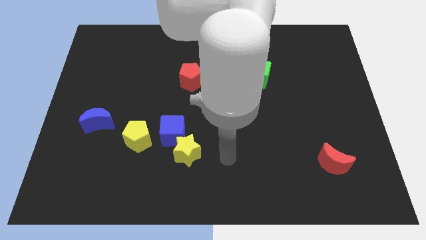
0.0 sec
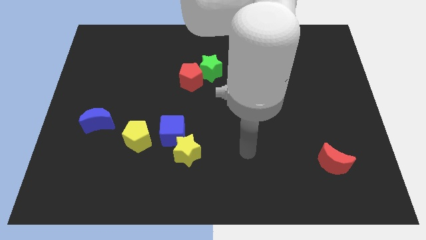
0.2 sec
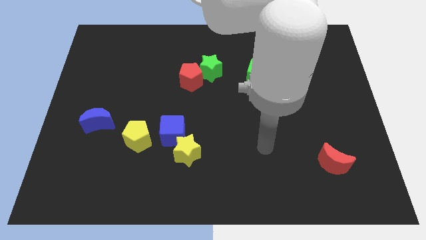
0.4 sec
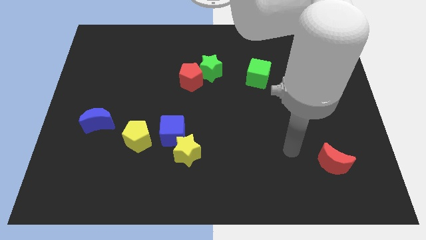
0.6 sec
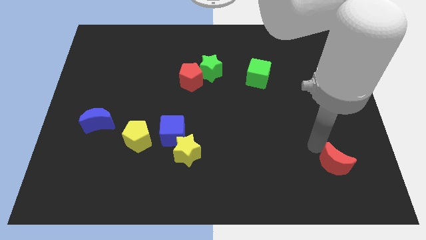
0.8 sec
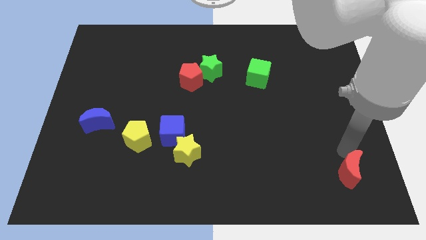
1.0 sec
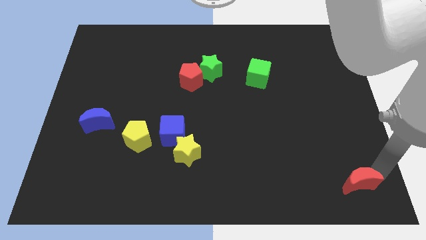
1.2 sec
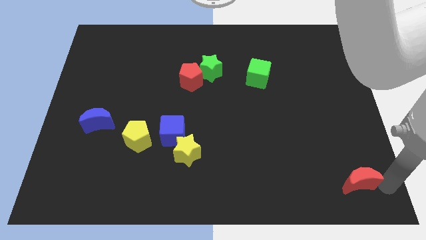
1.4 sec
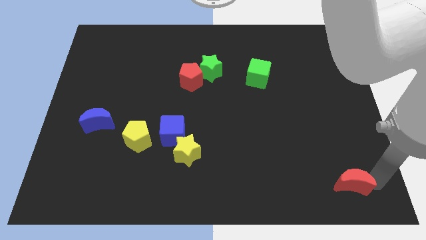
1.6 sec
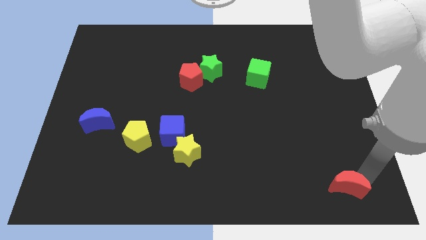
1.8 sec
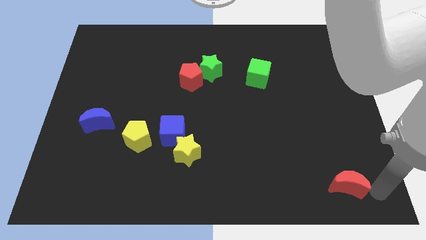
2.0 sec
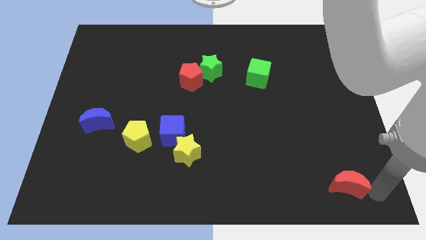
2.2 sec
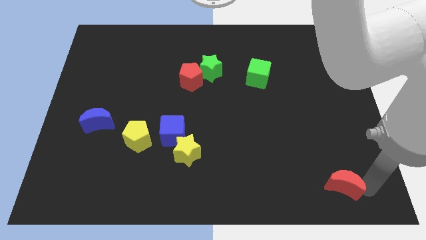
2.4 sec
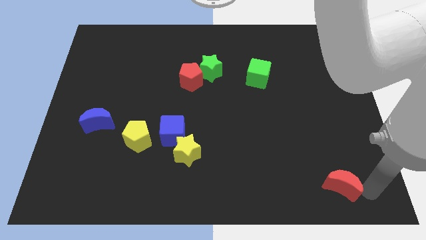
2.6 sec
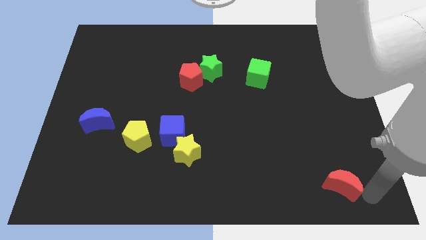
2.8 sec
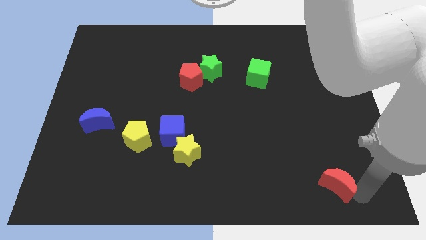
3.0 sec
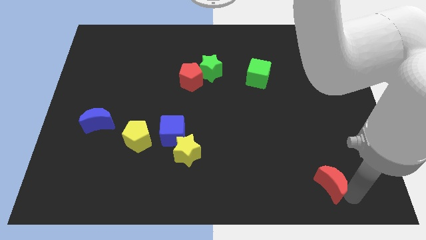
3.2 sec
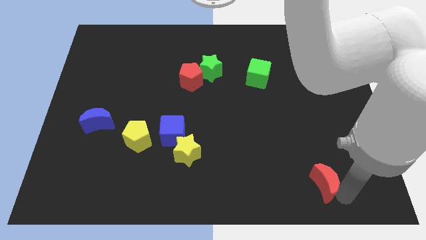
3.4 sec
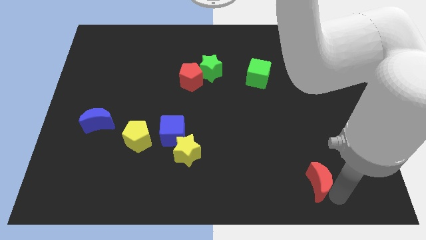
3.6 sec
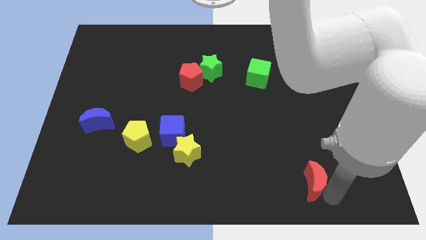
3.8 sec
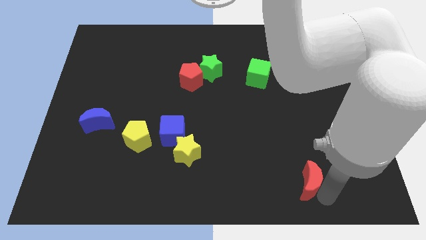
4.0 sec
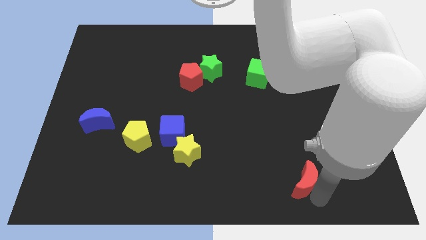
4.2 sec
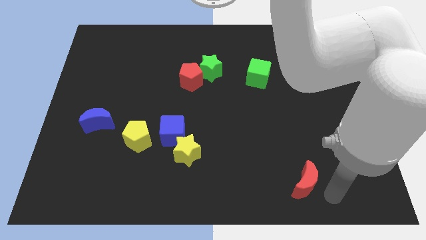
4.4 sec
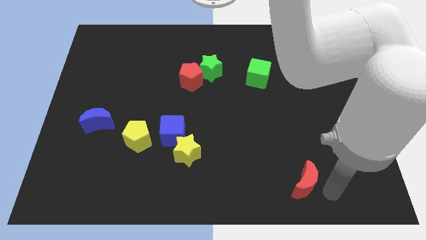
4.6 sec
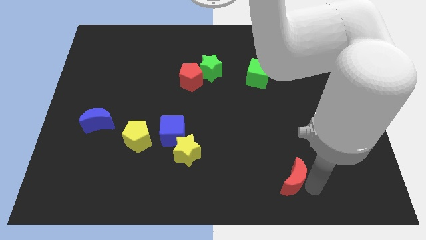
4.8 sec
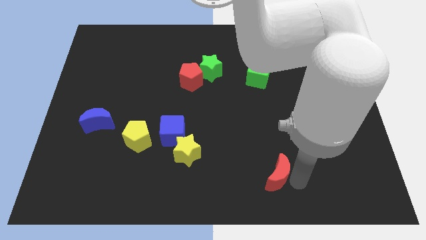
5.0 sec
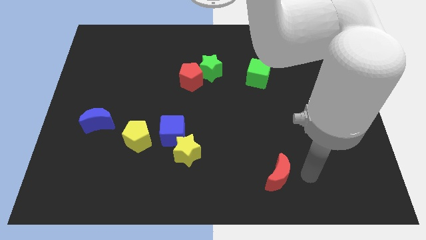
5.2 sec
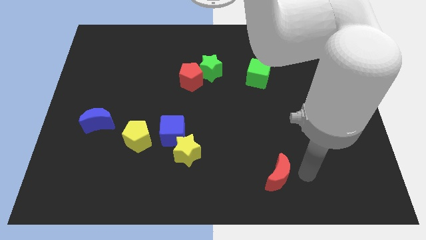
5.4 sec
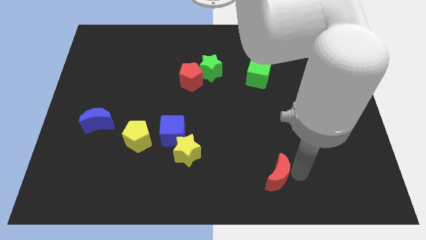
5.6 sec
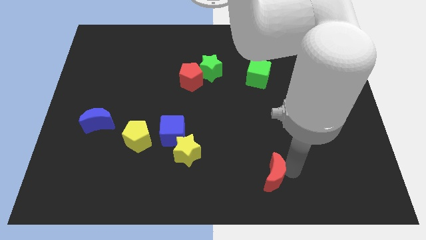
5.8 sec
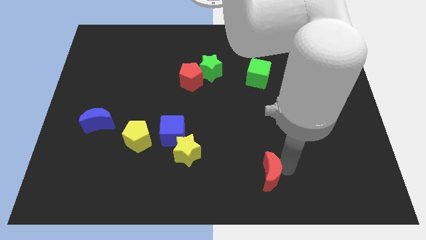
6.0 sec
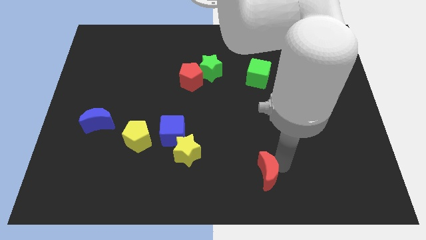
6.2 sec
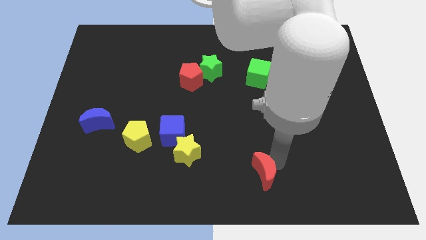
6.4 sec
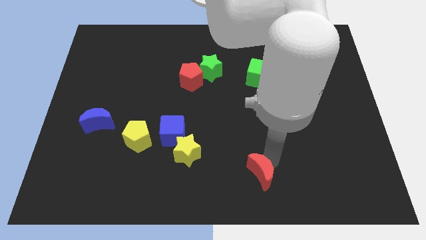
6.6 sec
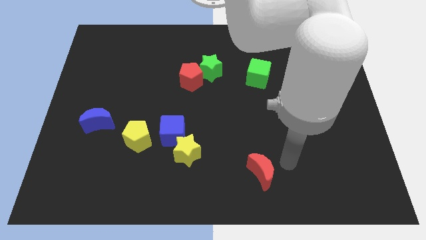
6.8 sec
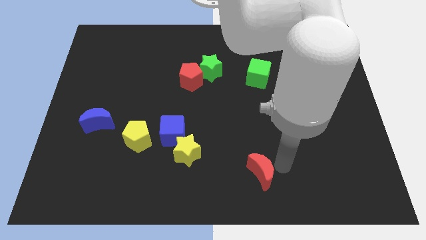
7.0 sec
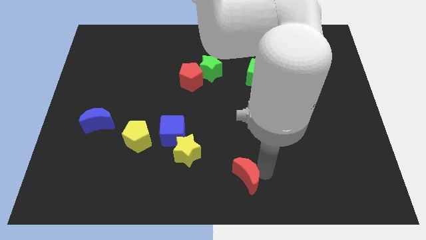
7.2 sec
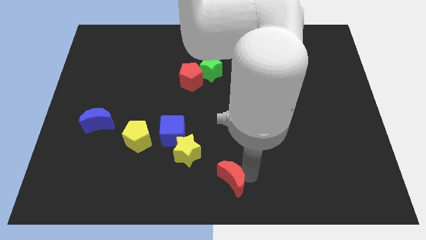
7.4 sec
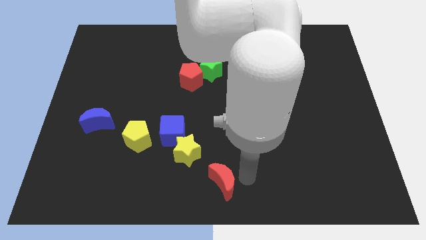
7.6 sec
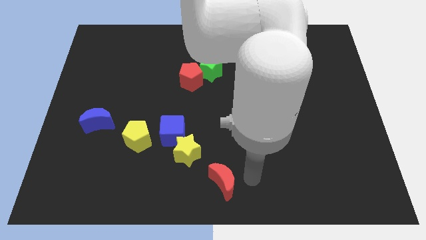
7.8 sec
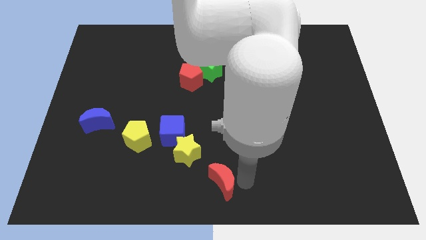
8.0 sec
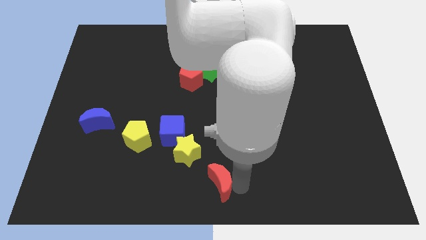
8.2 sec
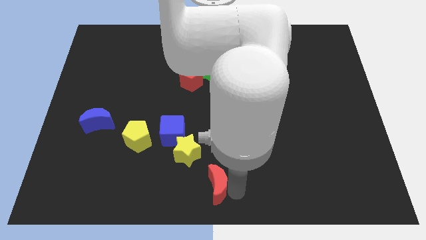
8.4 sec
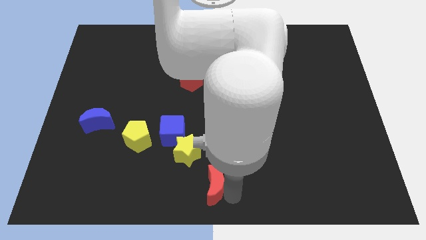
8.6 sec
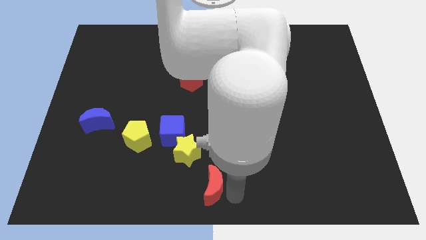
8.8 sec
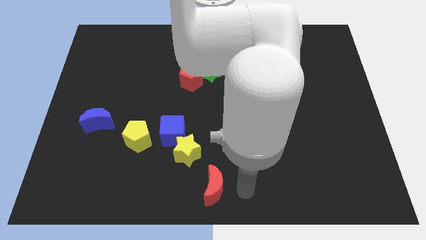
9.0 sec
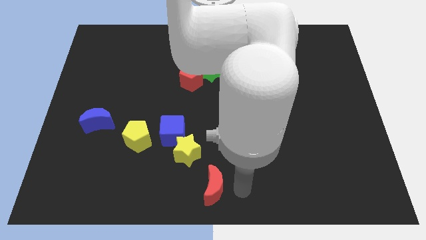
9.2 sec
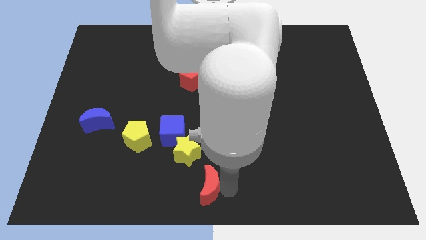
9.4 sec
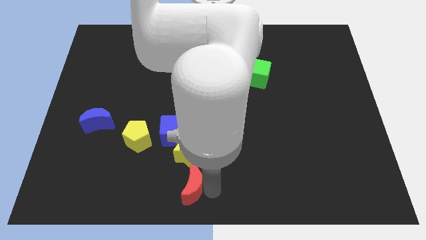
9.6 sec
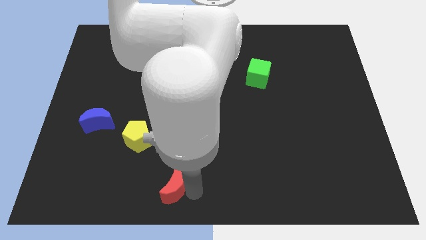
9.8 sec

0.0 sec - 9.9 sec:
put the red moon to the bottom left side of the yellow star

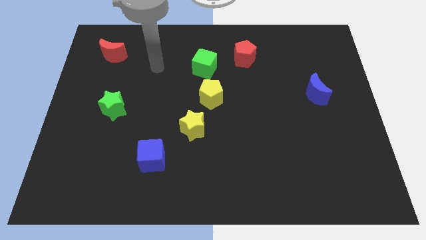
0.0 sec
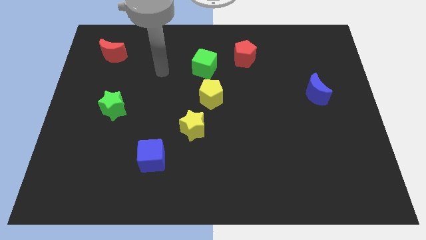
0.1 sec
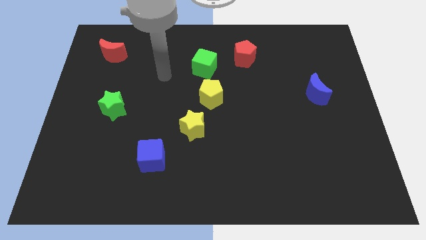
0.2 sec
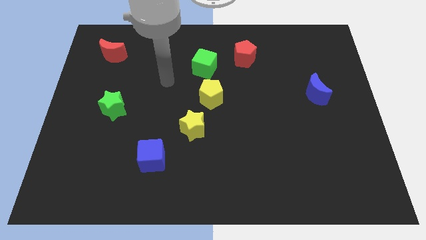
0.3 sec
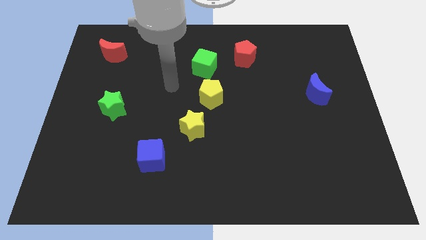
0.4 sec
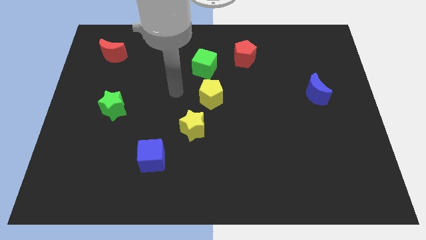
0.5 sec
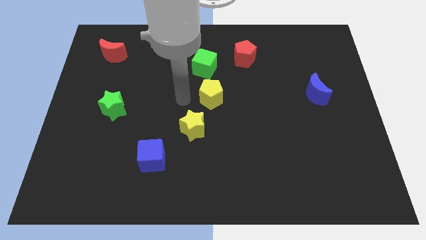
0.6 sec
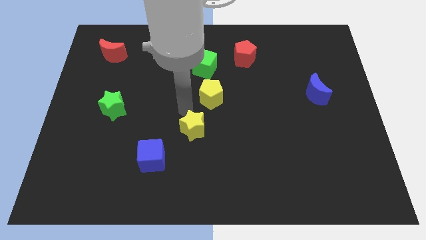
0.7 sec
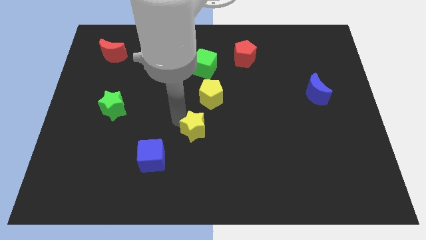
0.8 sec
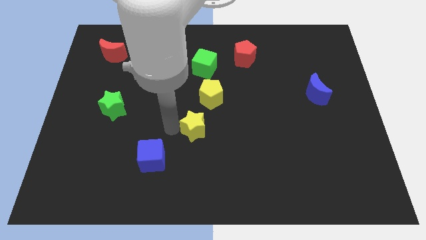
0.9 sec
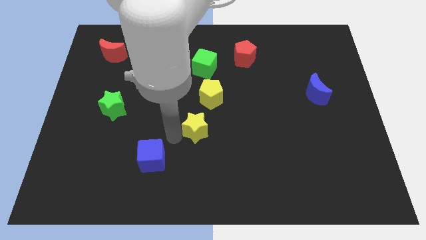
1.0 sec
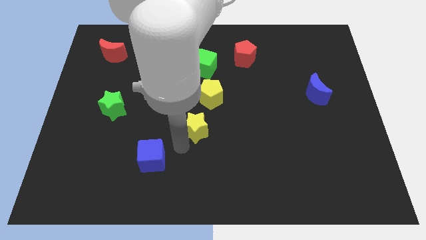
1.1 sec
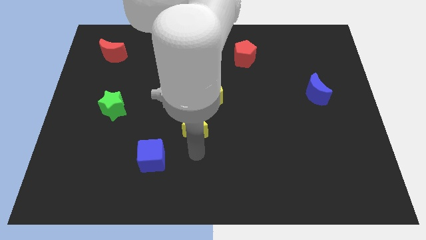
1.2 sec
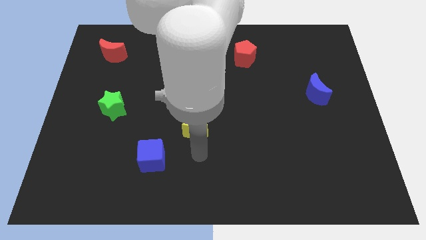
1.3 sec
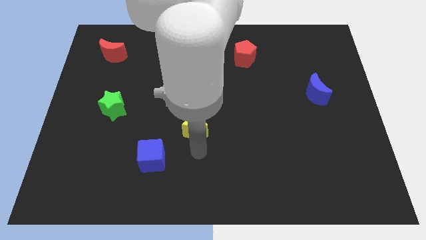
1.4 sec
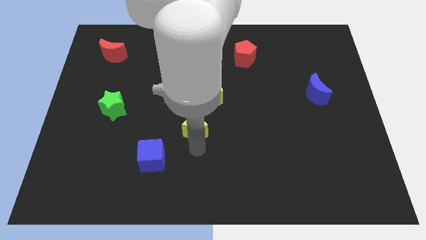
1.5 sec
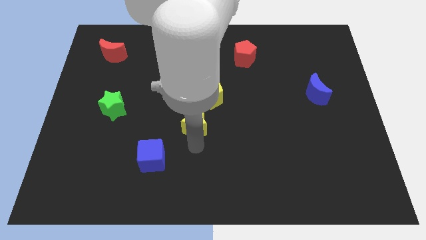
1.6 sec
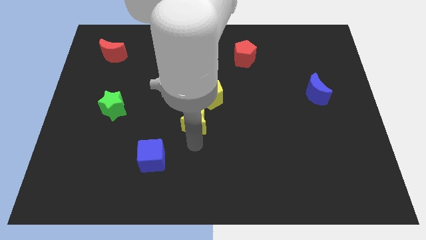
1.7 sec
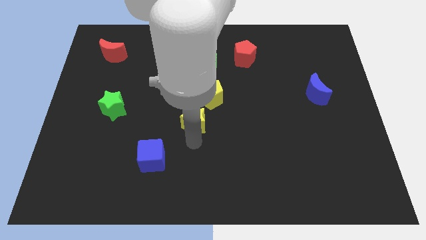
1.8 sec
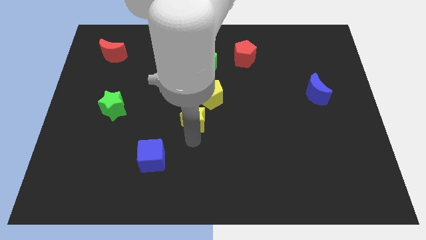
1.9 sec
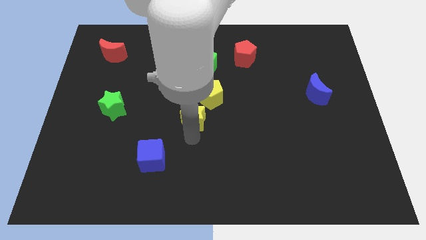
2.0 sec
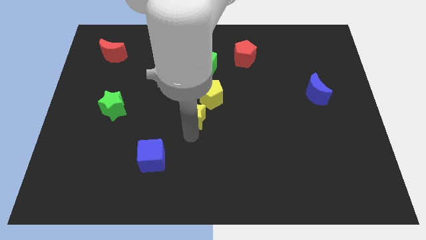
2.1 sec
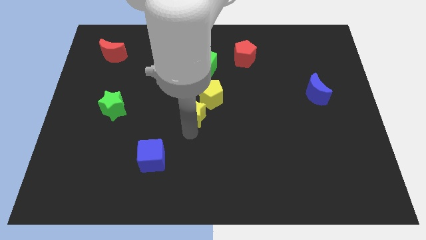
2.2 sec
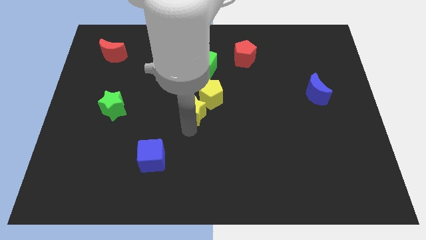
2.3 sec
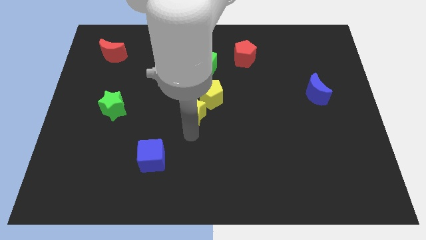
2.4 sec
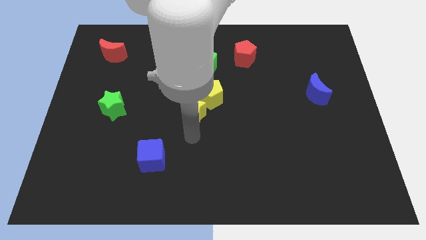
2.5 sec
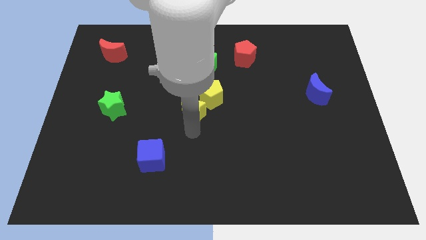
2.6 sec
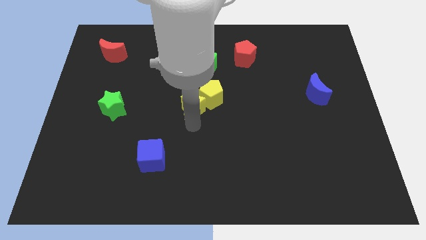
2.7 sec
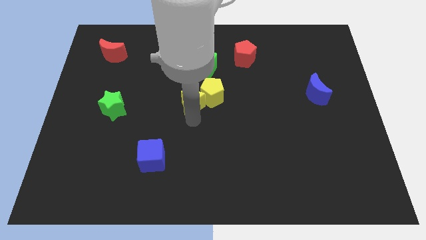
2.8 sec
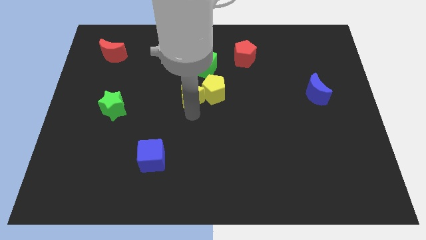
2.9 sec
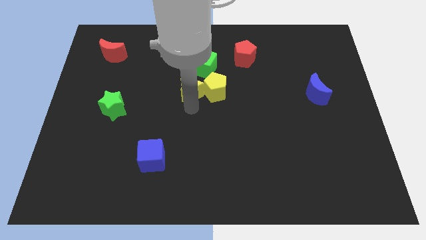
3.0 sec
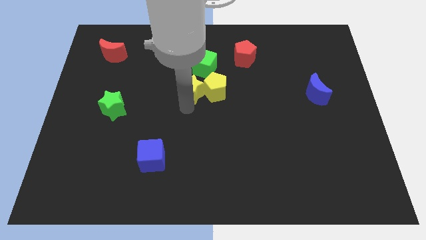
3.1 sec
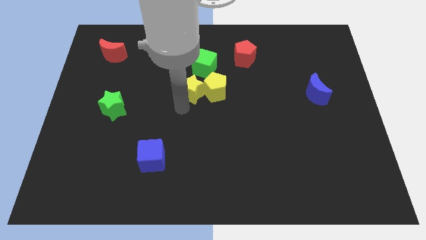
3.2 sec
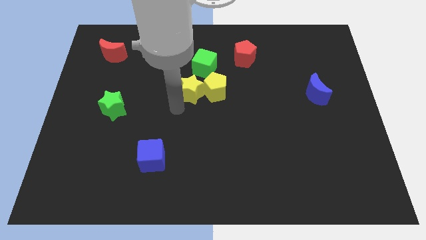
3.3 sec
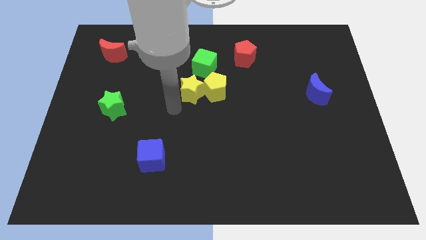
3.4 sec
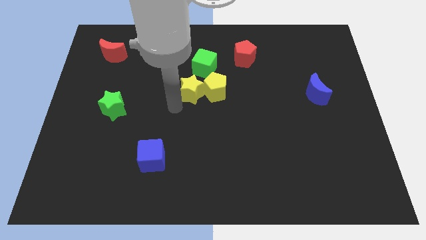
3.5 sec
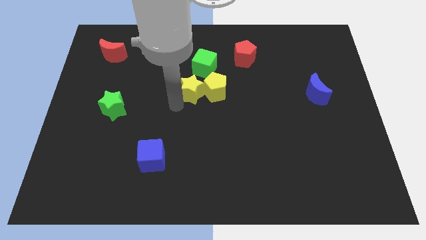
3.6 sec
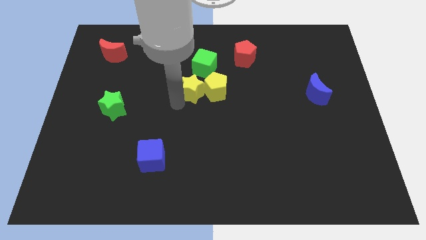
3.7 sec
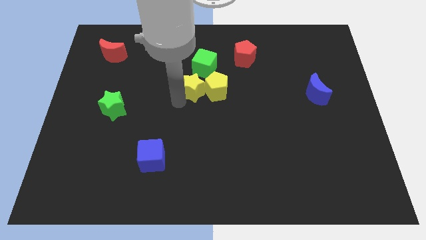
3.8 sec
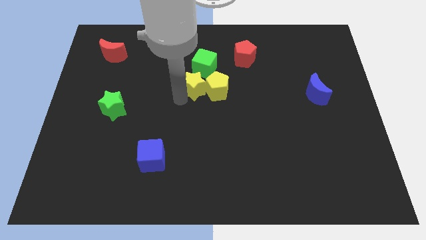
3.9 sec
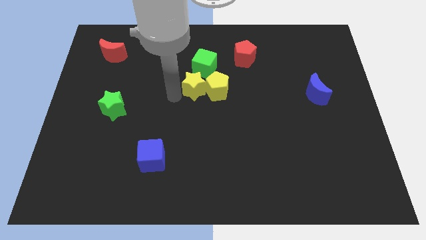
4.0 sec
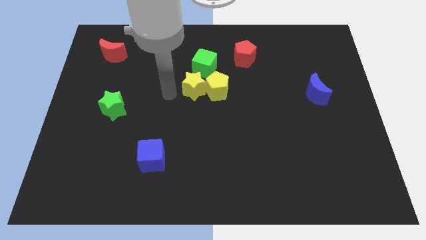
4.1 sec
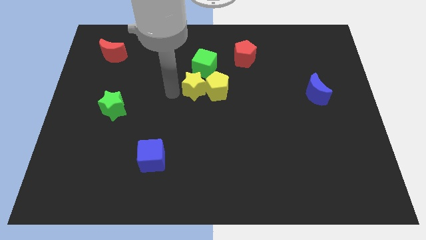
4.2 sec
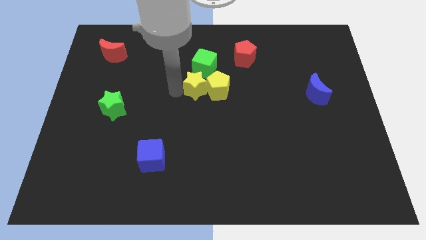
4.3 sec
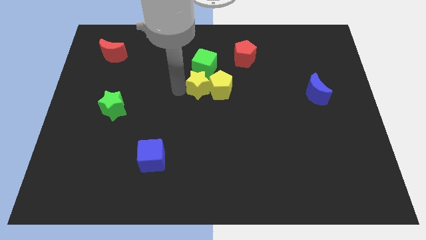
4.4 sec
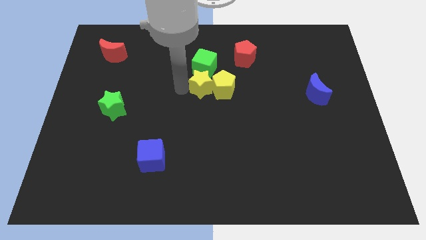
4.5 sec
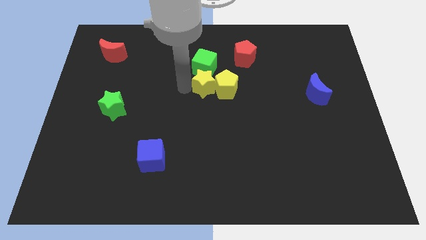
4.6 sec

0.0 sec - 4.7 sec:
slide the yellow star to the bottom right side of the green cube
